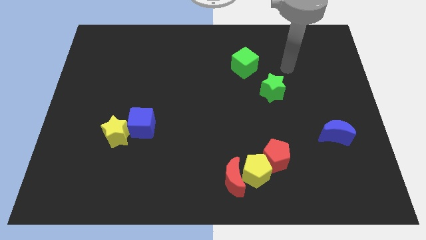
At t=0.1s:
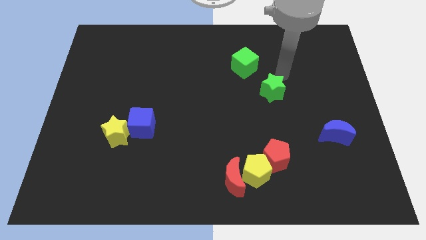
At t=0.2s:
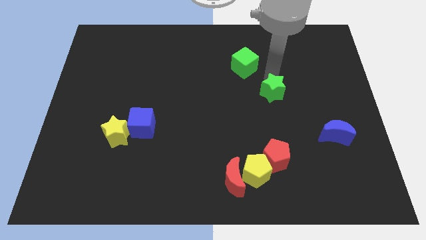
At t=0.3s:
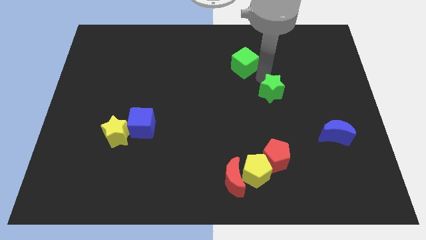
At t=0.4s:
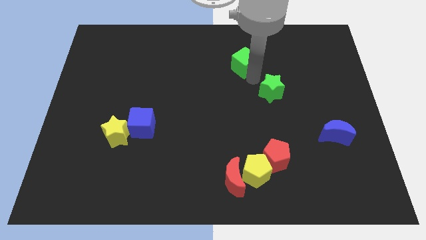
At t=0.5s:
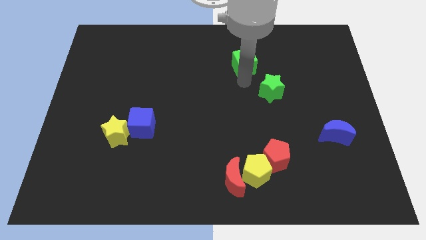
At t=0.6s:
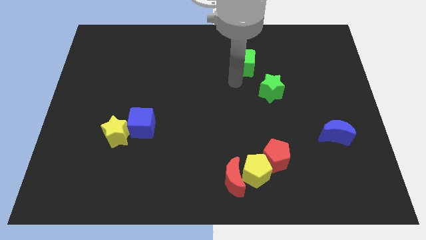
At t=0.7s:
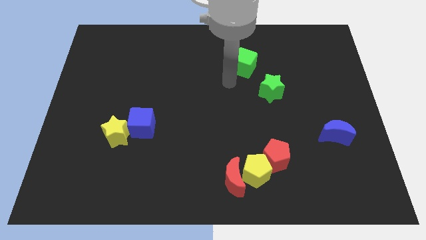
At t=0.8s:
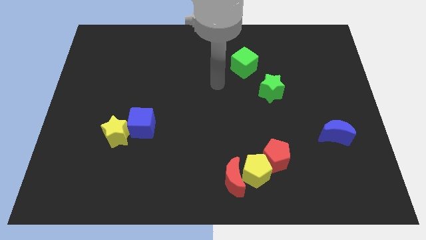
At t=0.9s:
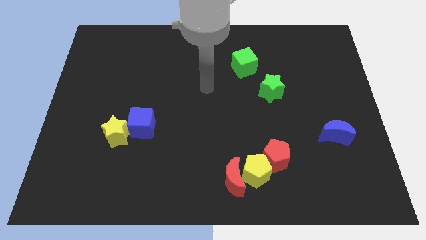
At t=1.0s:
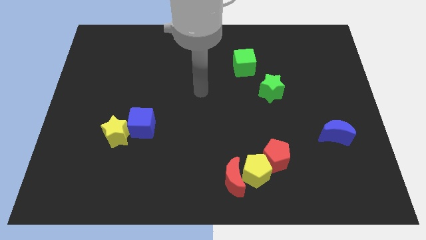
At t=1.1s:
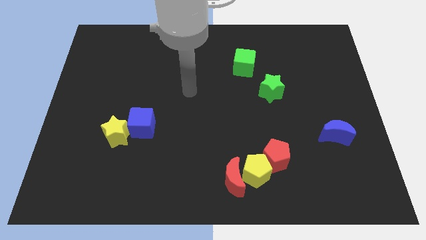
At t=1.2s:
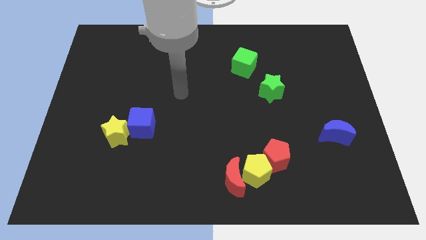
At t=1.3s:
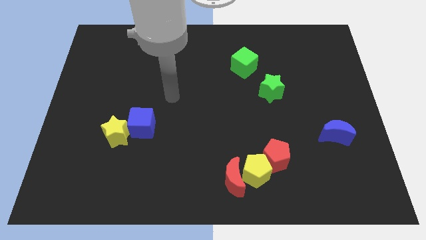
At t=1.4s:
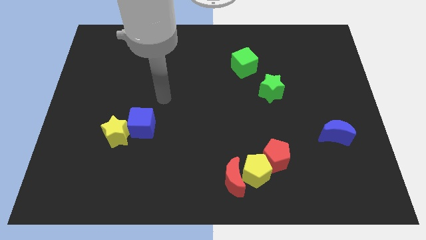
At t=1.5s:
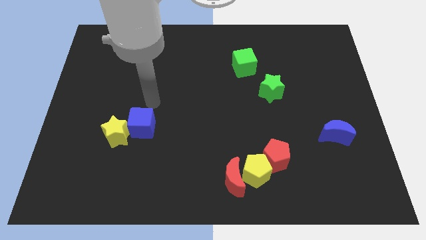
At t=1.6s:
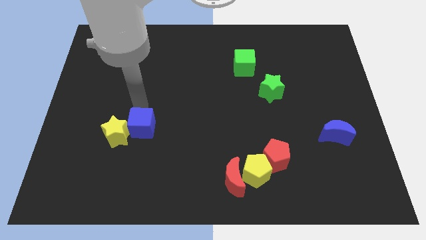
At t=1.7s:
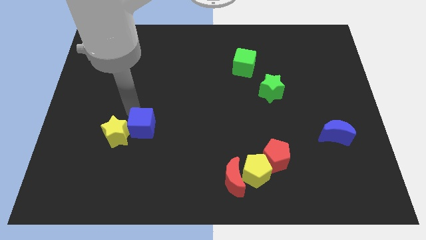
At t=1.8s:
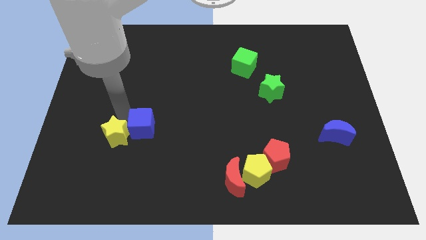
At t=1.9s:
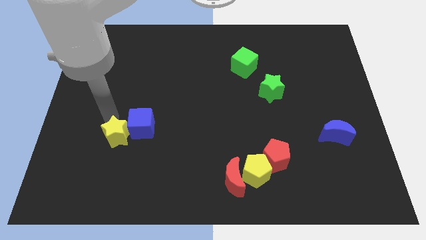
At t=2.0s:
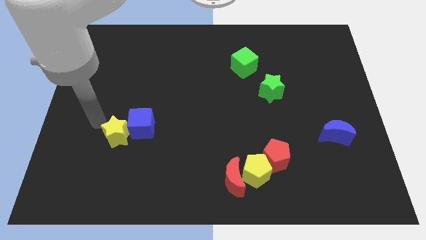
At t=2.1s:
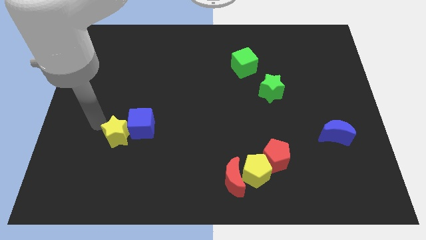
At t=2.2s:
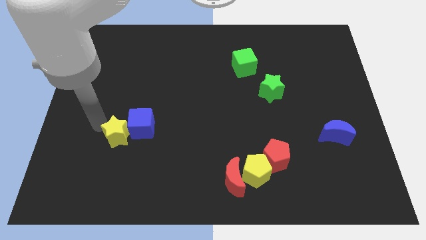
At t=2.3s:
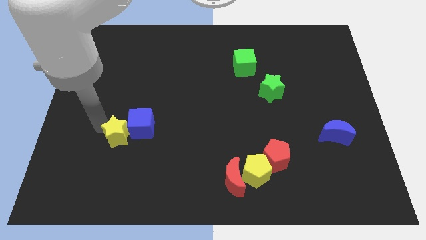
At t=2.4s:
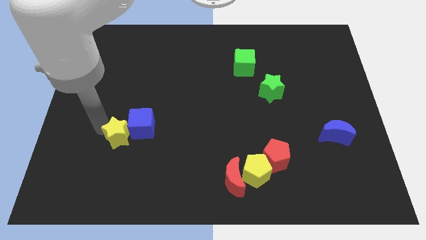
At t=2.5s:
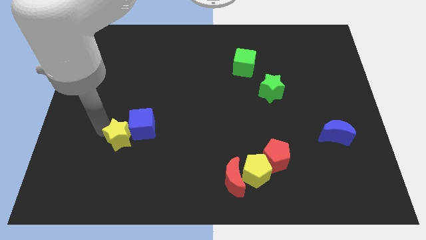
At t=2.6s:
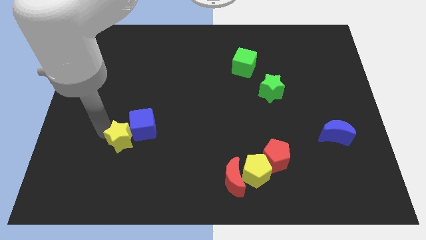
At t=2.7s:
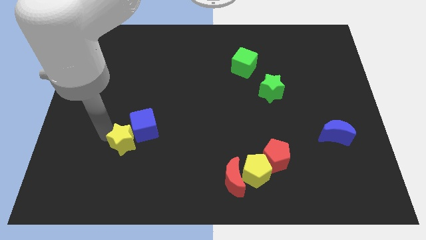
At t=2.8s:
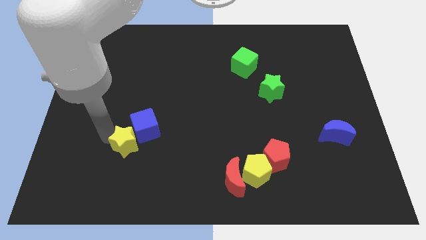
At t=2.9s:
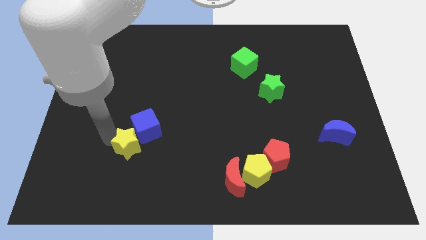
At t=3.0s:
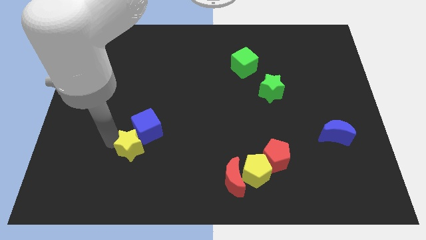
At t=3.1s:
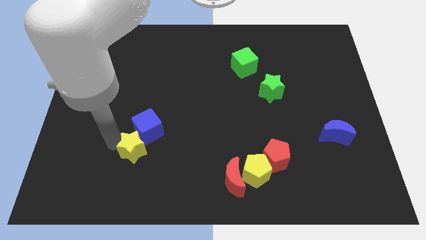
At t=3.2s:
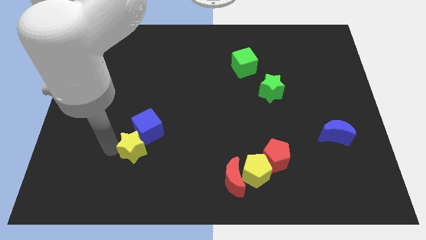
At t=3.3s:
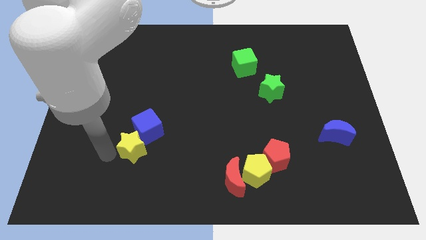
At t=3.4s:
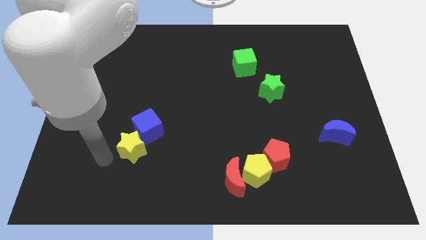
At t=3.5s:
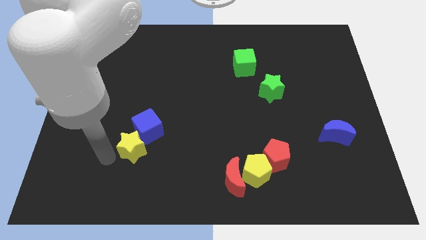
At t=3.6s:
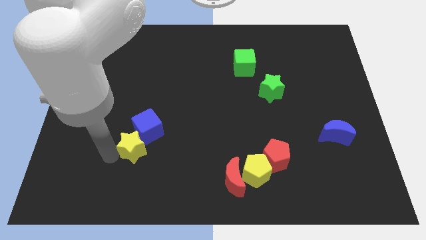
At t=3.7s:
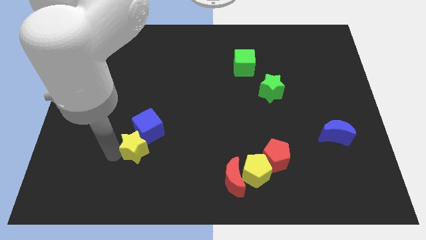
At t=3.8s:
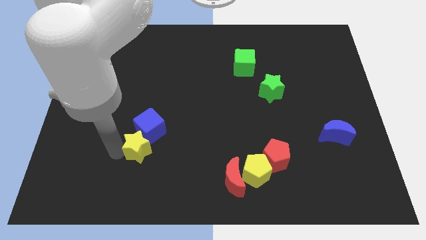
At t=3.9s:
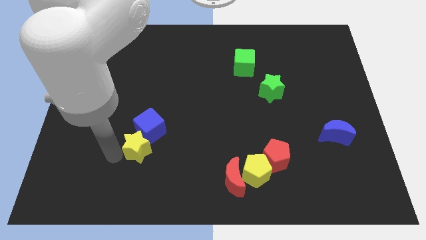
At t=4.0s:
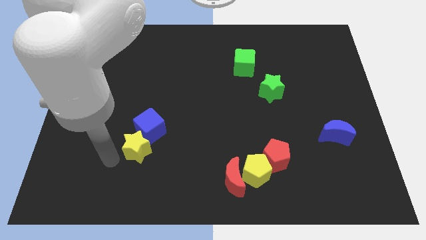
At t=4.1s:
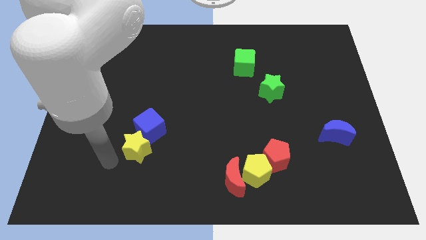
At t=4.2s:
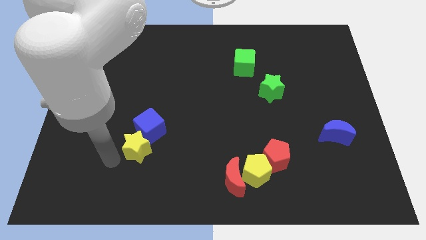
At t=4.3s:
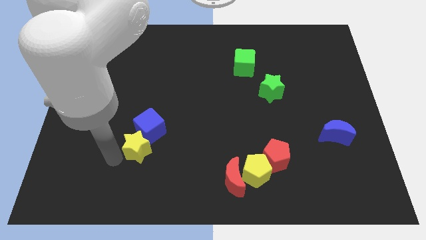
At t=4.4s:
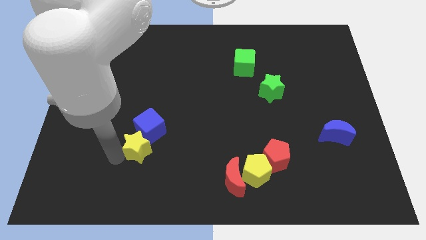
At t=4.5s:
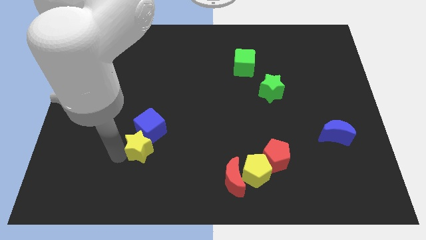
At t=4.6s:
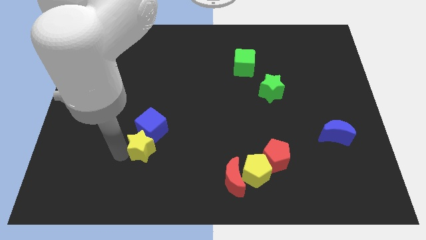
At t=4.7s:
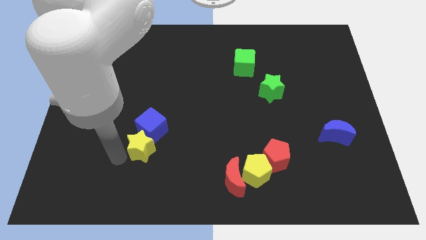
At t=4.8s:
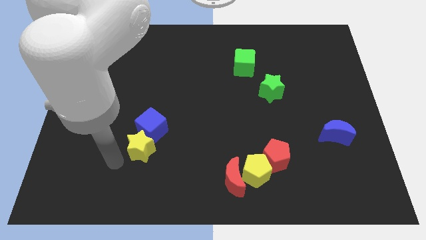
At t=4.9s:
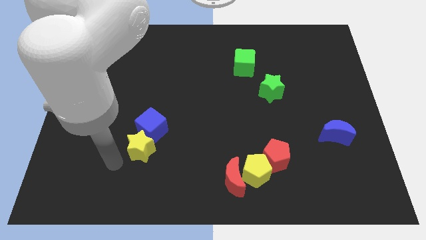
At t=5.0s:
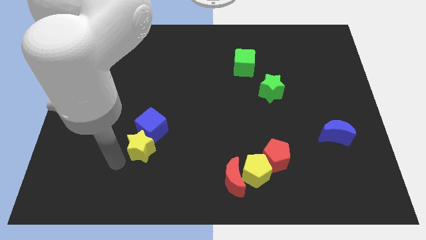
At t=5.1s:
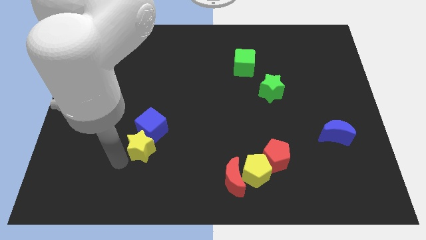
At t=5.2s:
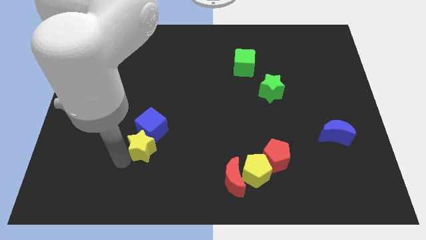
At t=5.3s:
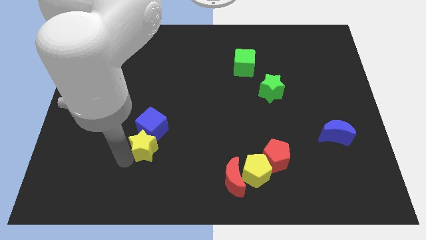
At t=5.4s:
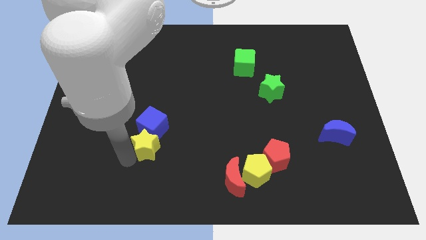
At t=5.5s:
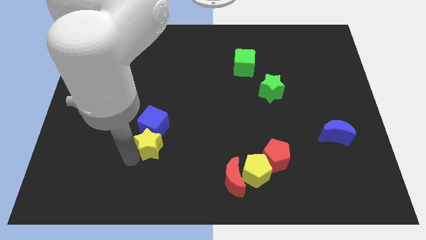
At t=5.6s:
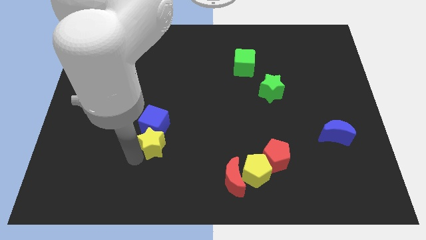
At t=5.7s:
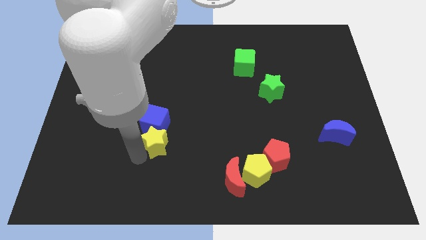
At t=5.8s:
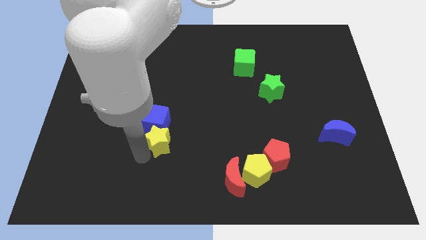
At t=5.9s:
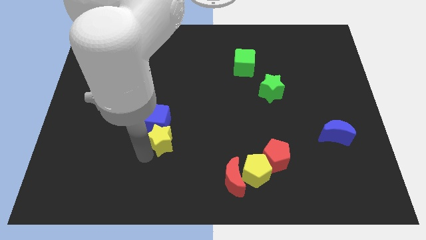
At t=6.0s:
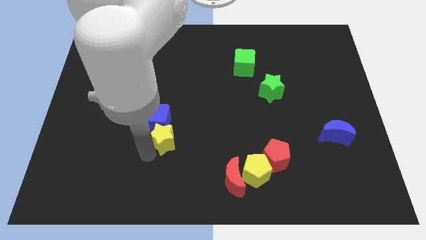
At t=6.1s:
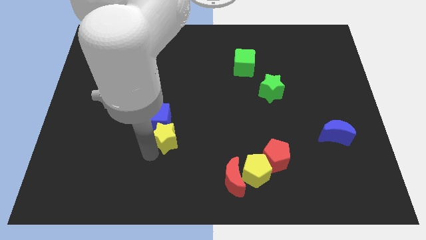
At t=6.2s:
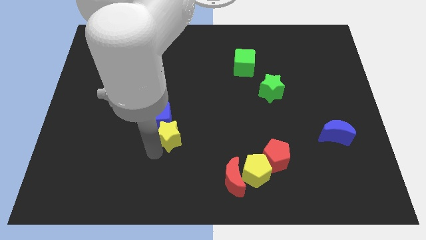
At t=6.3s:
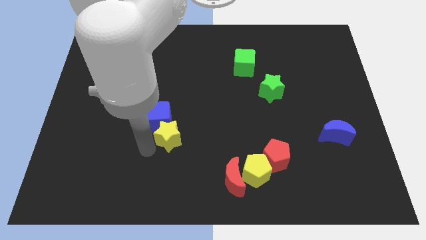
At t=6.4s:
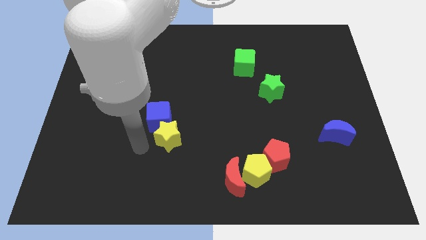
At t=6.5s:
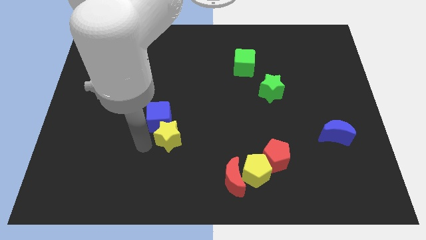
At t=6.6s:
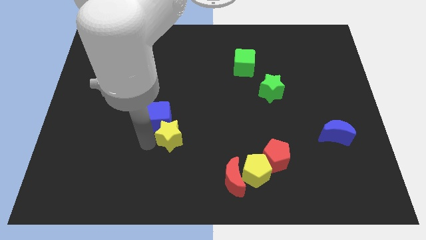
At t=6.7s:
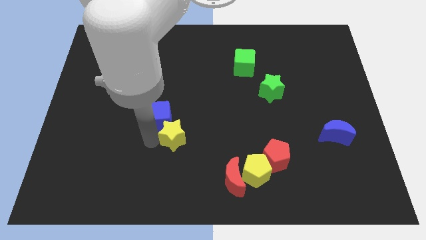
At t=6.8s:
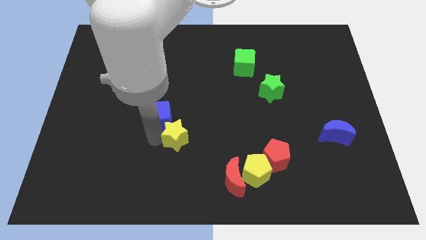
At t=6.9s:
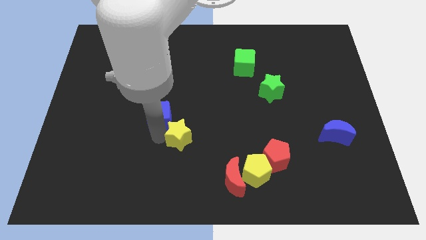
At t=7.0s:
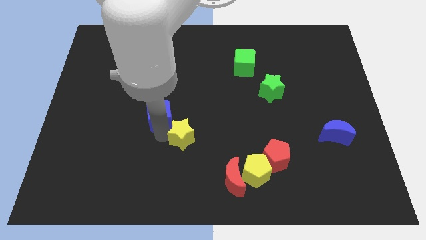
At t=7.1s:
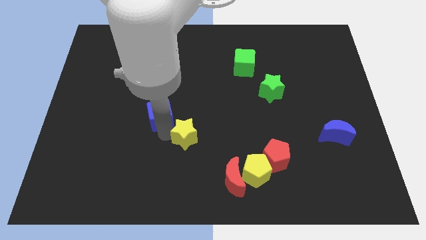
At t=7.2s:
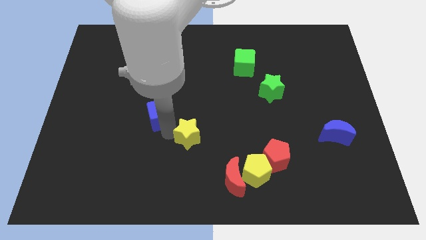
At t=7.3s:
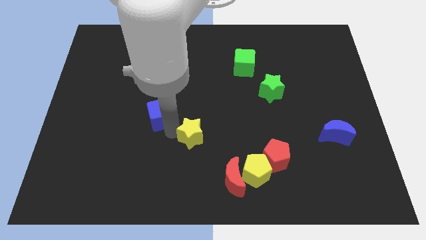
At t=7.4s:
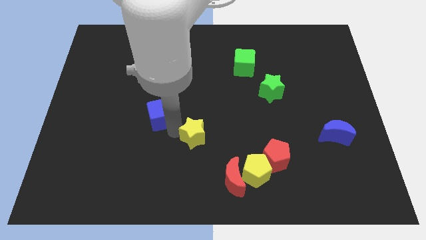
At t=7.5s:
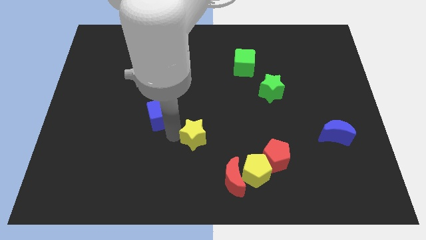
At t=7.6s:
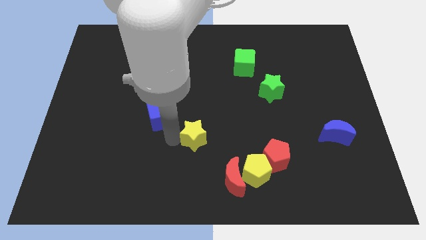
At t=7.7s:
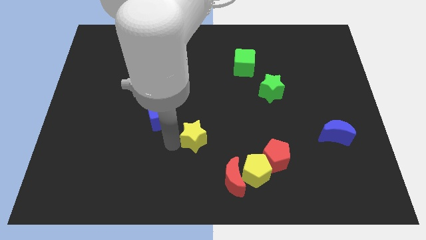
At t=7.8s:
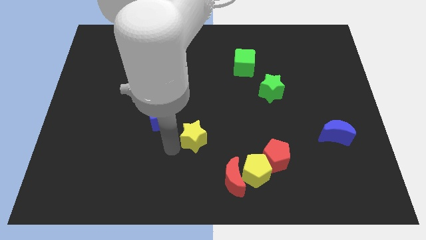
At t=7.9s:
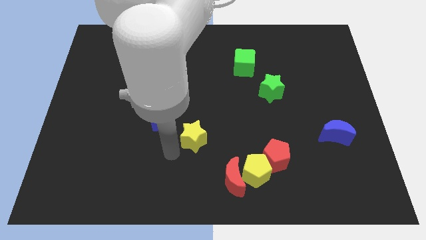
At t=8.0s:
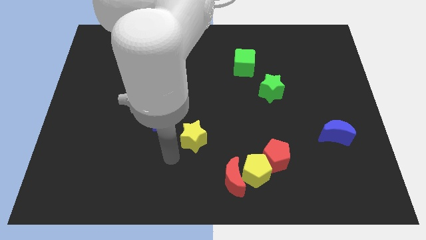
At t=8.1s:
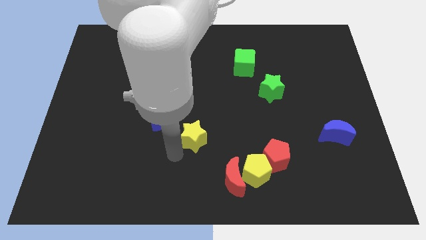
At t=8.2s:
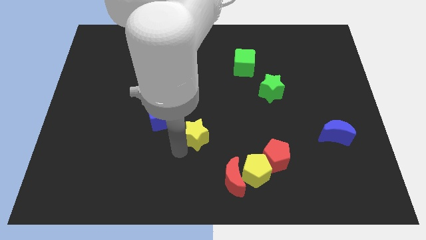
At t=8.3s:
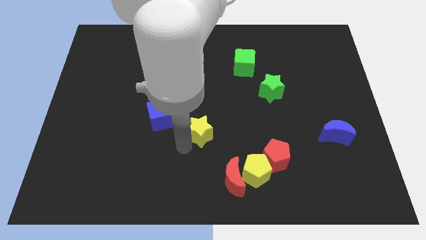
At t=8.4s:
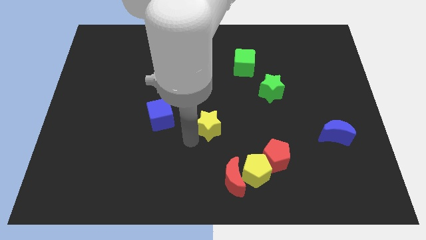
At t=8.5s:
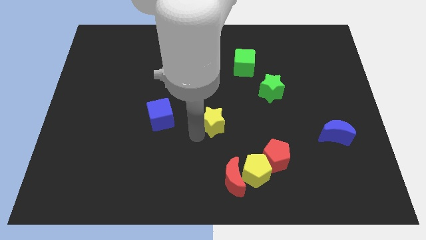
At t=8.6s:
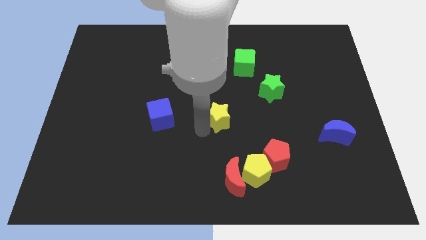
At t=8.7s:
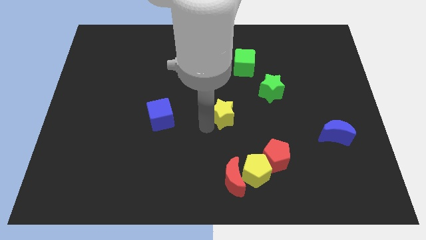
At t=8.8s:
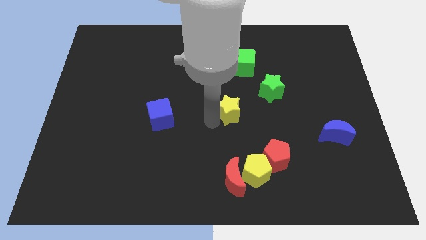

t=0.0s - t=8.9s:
push the yellow star diagonally down and to the left of the green star
